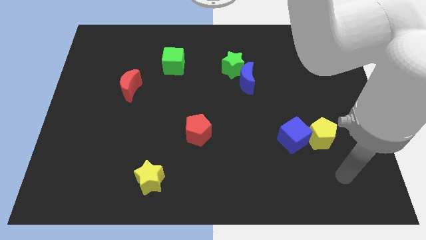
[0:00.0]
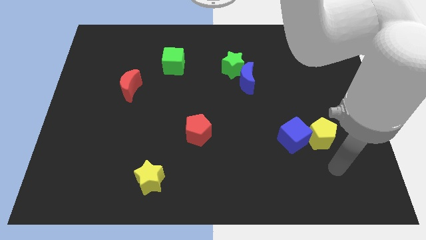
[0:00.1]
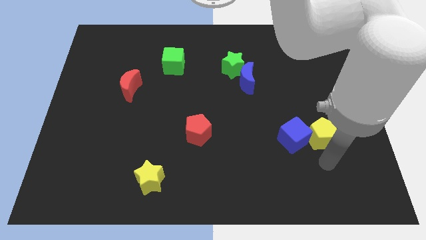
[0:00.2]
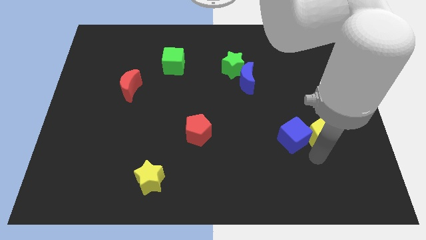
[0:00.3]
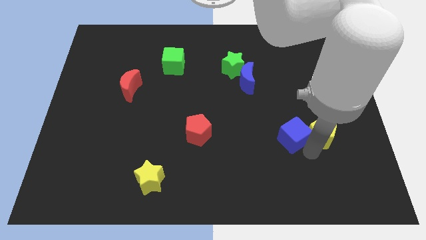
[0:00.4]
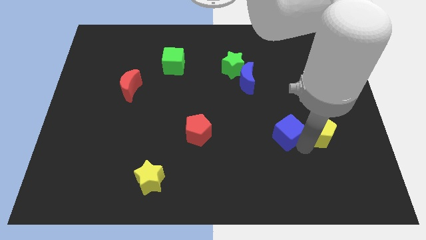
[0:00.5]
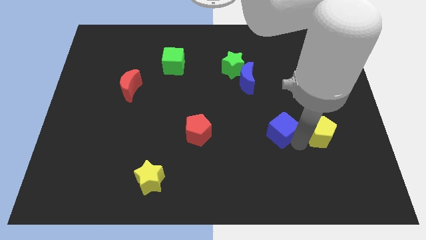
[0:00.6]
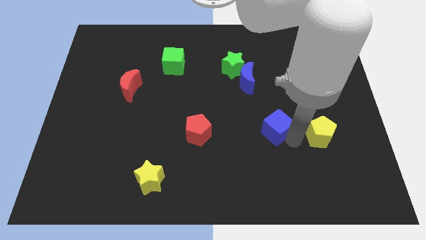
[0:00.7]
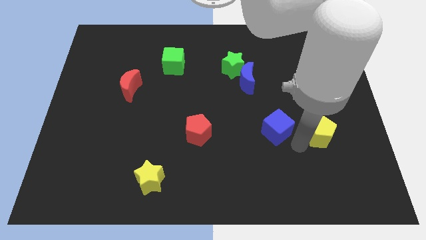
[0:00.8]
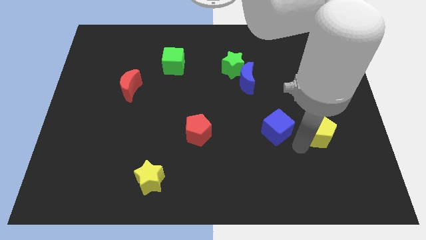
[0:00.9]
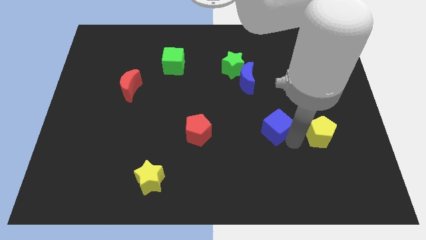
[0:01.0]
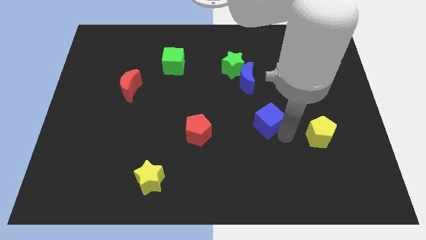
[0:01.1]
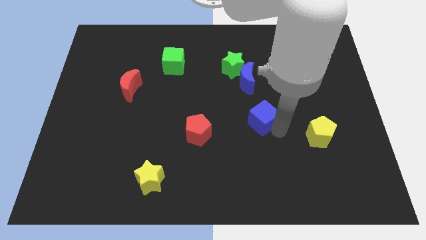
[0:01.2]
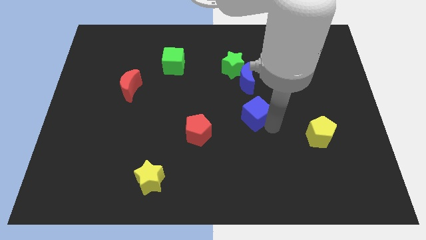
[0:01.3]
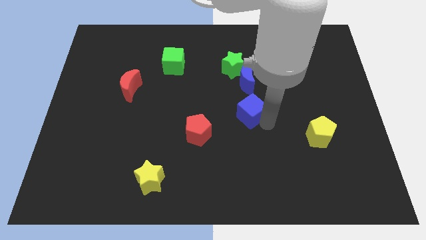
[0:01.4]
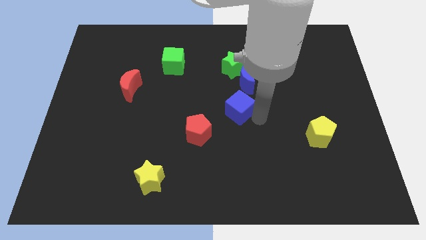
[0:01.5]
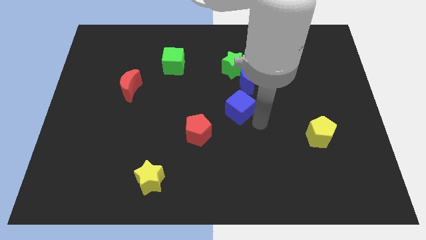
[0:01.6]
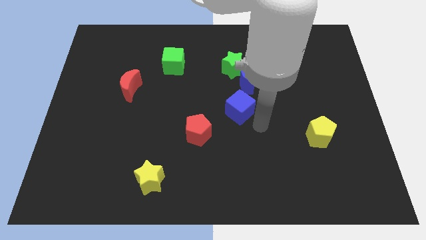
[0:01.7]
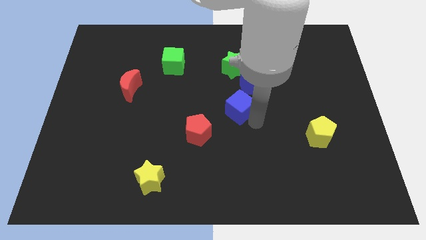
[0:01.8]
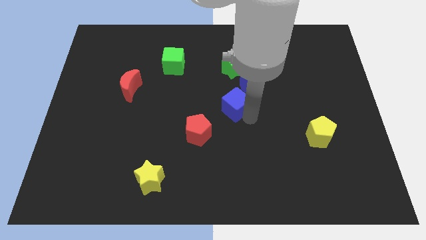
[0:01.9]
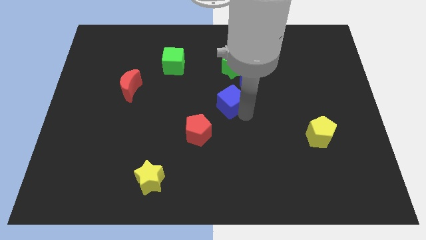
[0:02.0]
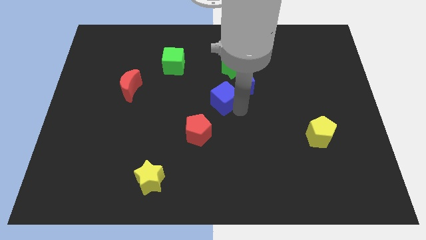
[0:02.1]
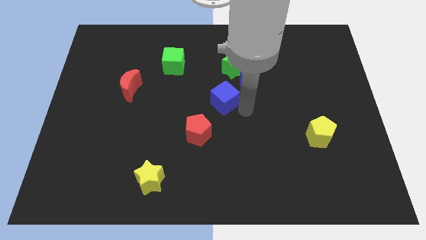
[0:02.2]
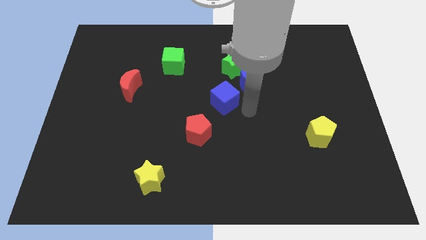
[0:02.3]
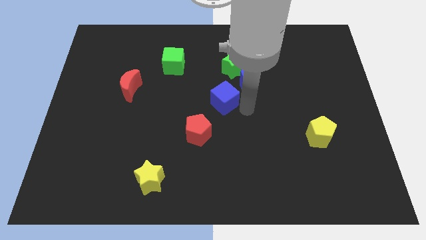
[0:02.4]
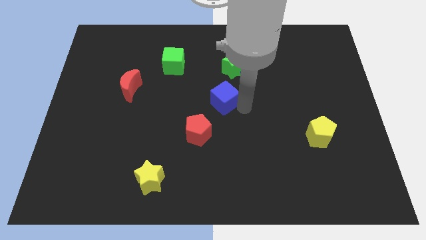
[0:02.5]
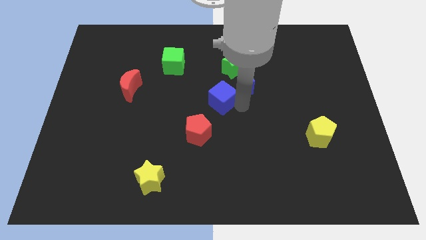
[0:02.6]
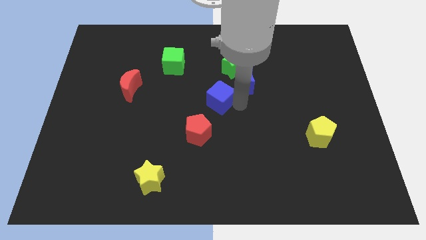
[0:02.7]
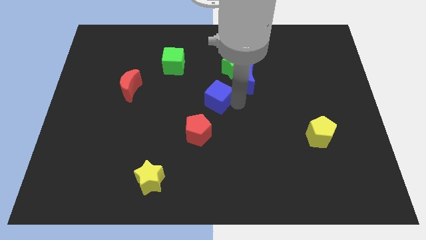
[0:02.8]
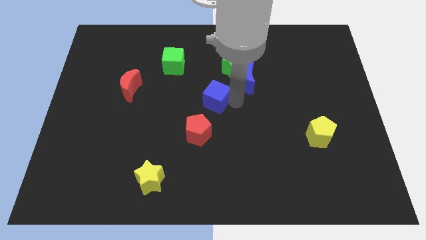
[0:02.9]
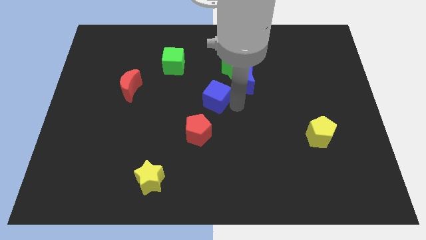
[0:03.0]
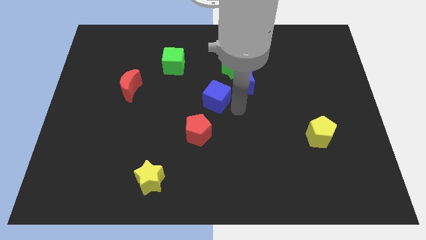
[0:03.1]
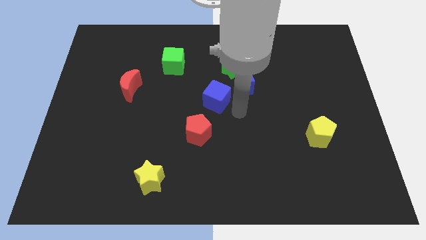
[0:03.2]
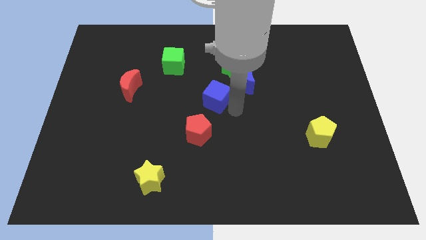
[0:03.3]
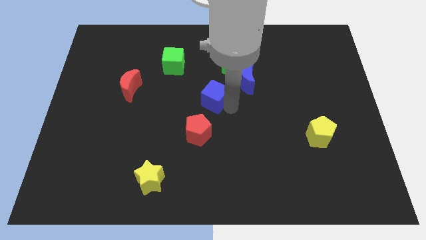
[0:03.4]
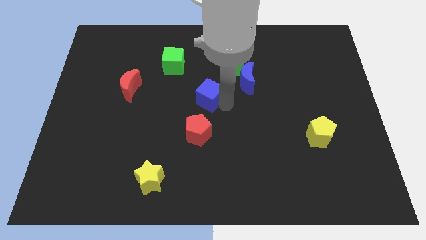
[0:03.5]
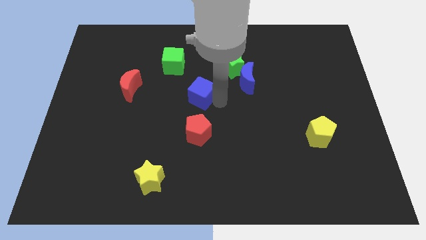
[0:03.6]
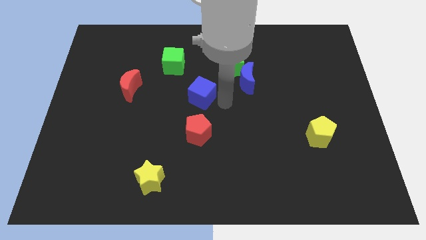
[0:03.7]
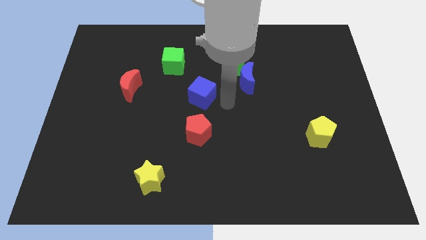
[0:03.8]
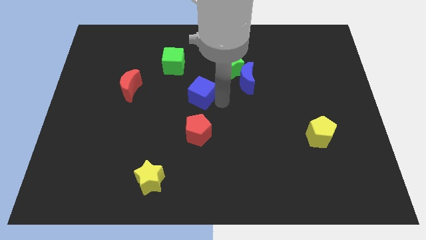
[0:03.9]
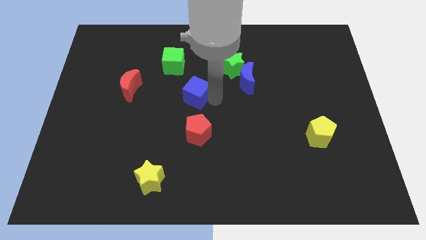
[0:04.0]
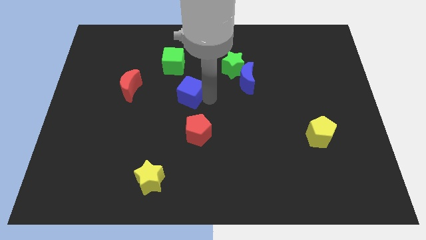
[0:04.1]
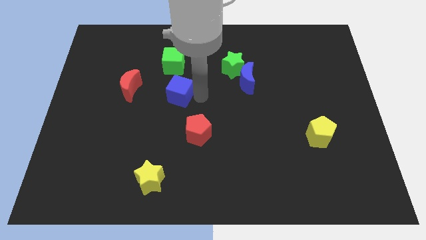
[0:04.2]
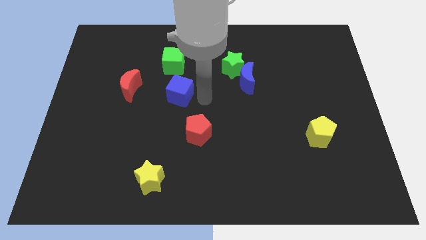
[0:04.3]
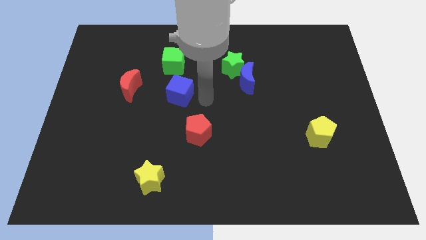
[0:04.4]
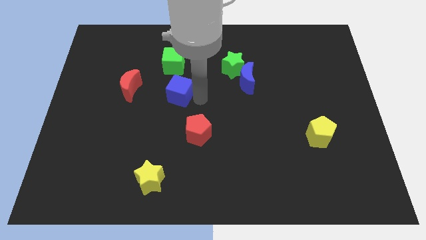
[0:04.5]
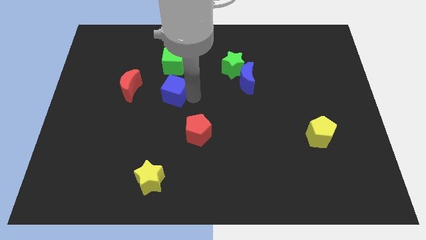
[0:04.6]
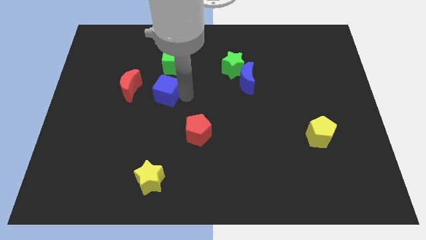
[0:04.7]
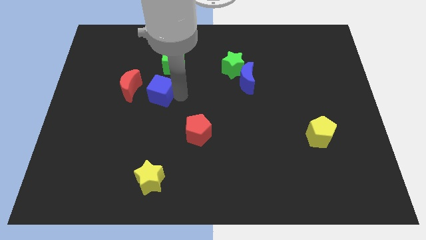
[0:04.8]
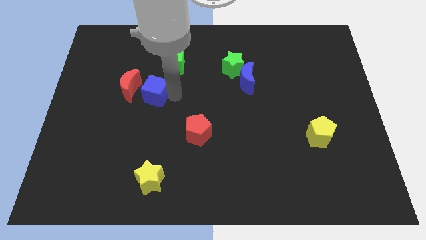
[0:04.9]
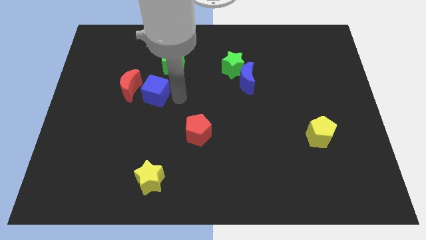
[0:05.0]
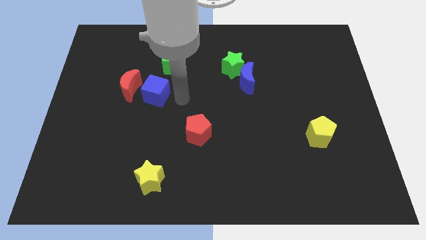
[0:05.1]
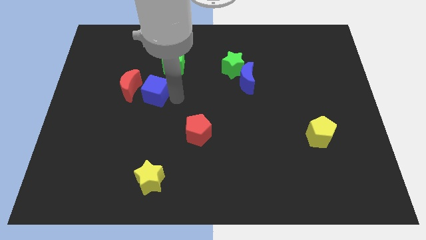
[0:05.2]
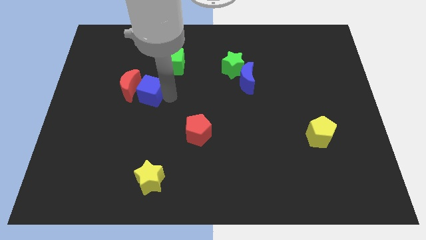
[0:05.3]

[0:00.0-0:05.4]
put the blue cube next to the red moon

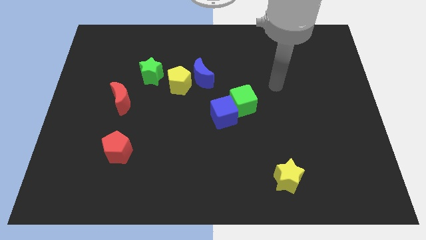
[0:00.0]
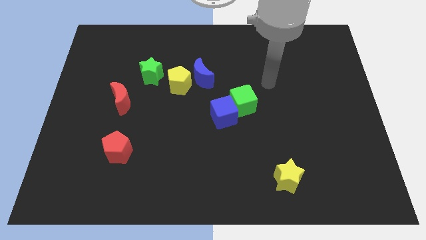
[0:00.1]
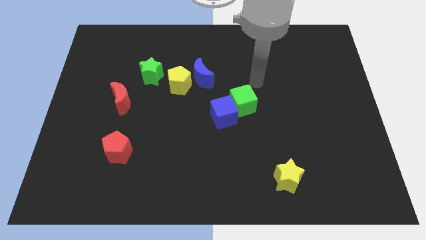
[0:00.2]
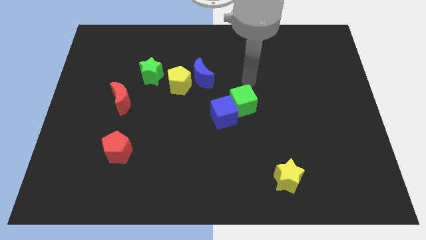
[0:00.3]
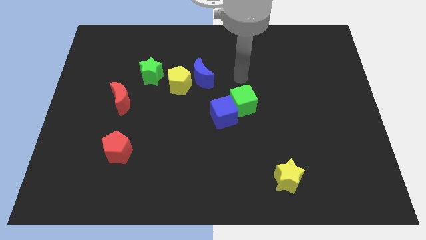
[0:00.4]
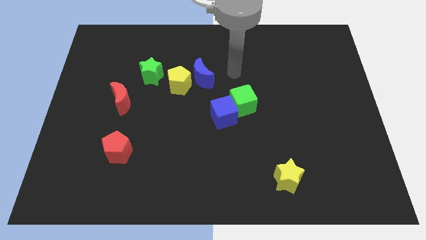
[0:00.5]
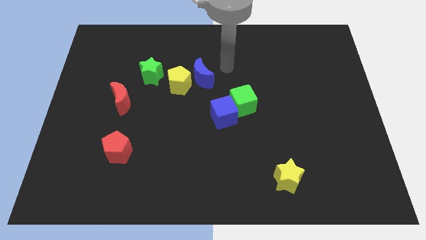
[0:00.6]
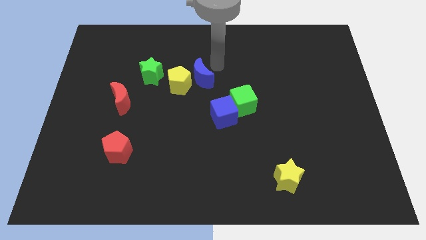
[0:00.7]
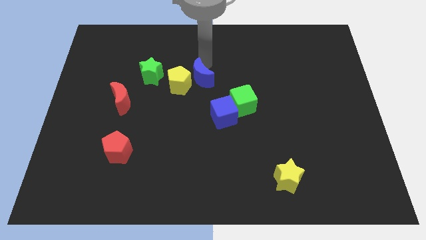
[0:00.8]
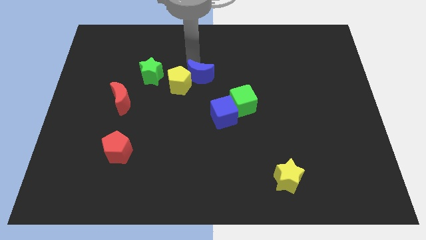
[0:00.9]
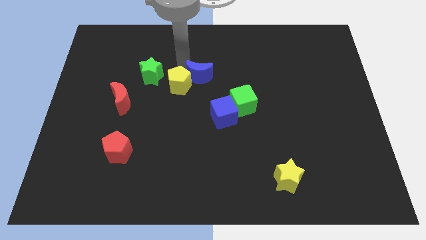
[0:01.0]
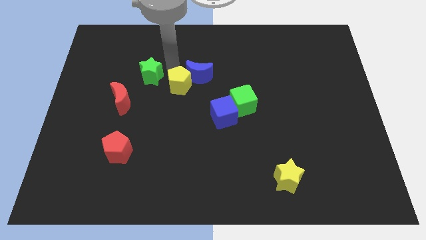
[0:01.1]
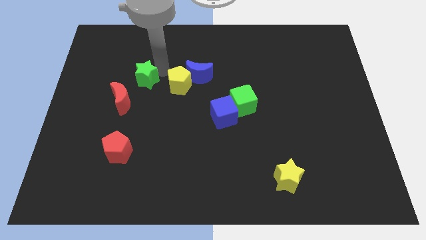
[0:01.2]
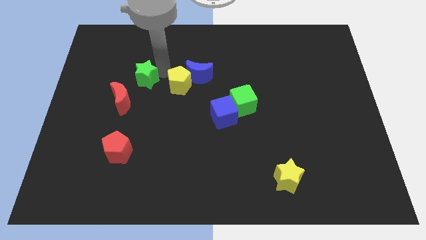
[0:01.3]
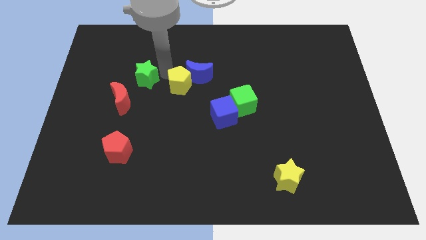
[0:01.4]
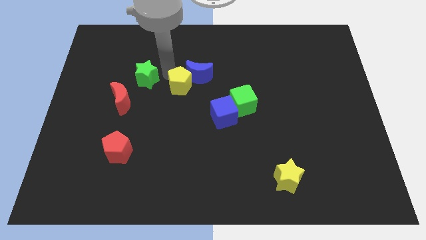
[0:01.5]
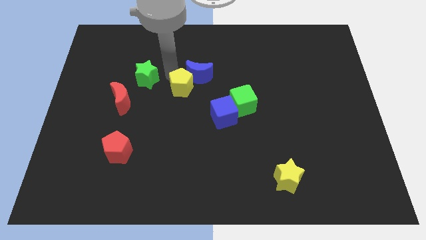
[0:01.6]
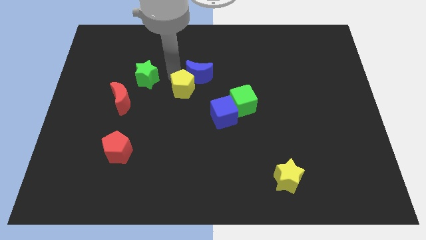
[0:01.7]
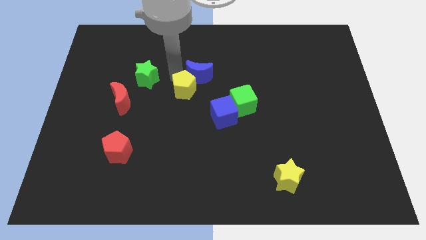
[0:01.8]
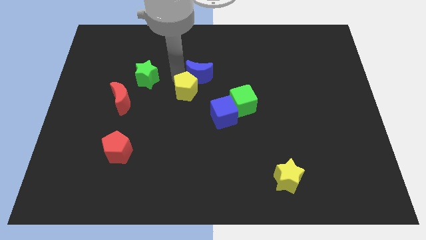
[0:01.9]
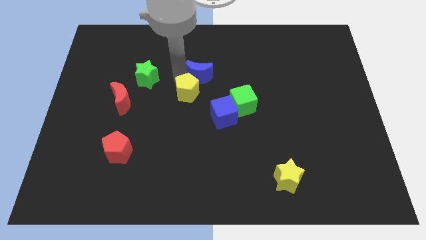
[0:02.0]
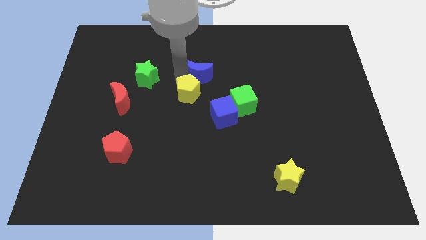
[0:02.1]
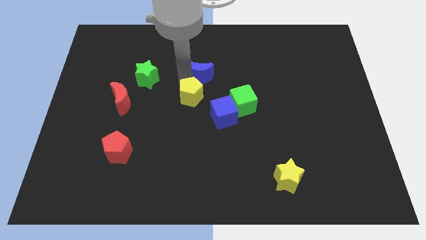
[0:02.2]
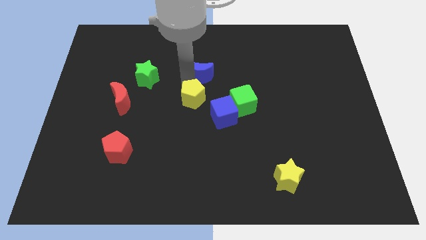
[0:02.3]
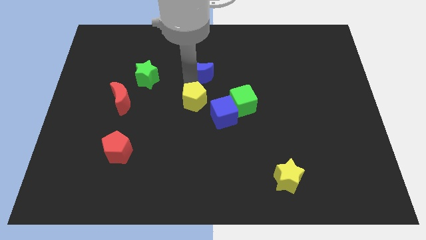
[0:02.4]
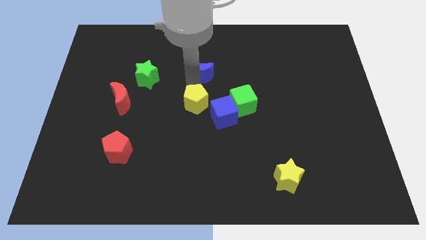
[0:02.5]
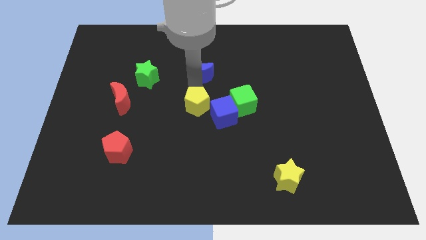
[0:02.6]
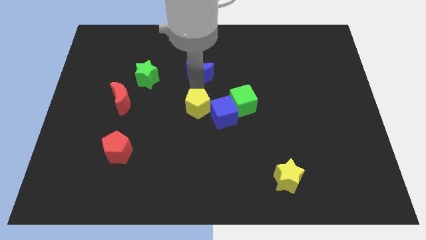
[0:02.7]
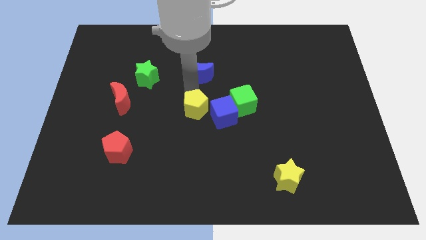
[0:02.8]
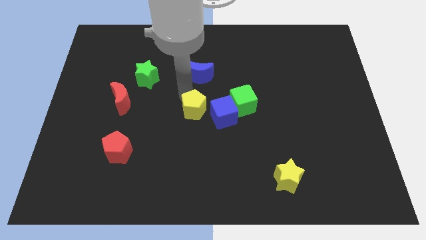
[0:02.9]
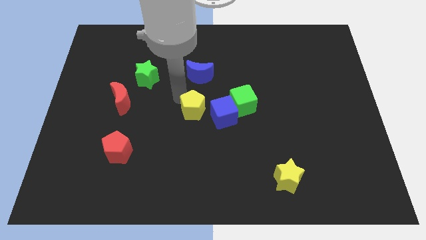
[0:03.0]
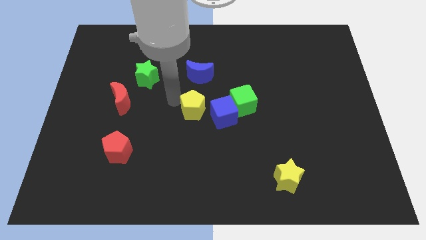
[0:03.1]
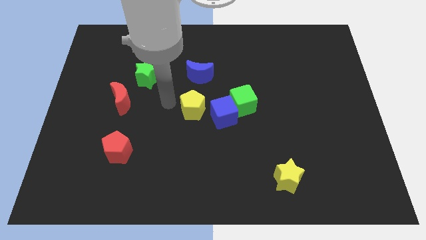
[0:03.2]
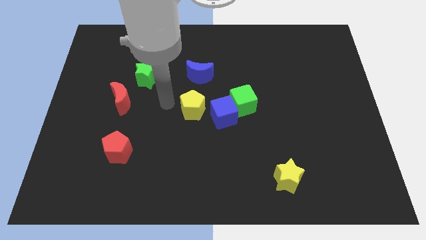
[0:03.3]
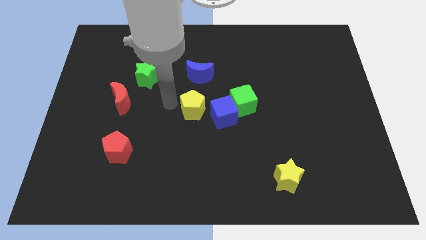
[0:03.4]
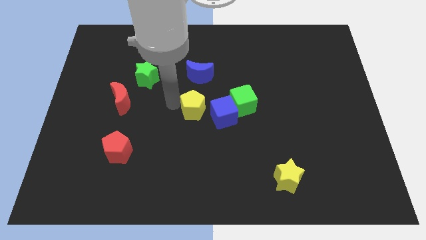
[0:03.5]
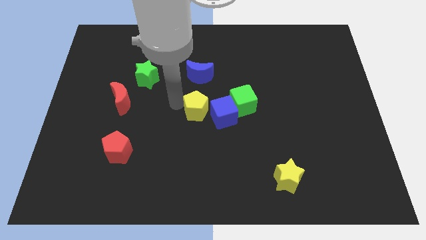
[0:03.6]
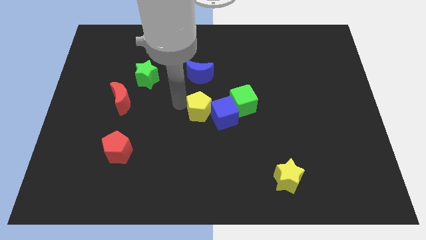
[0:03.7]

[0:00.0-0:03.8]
push the yellow pentagon next to the blue cube
